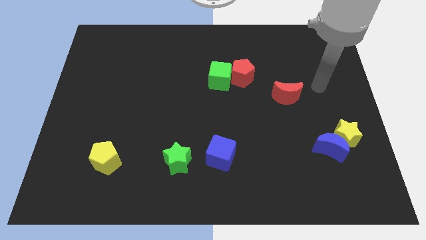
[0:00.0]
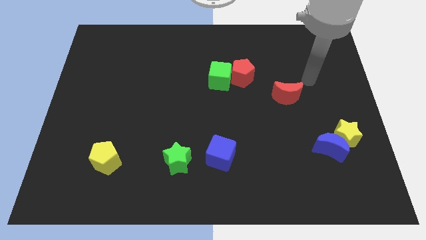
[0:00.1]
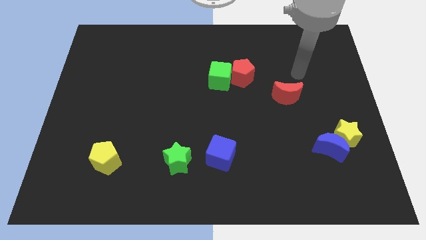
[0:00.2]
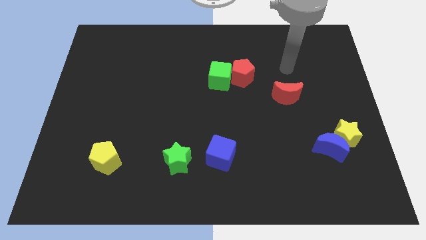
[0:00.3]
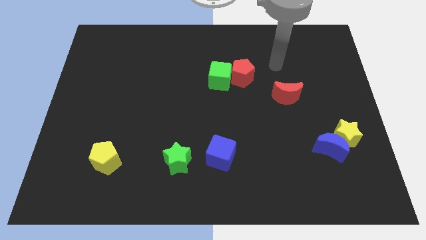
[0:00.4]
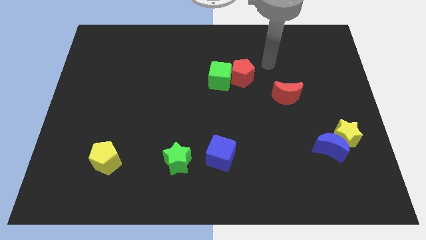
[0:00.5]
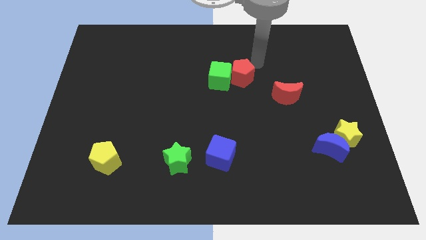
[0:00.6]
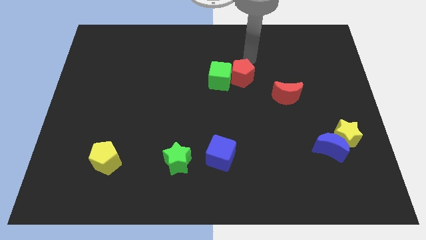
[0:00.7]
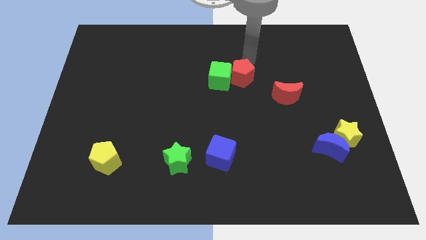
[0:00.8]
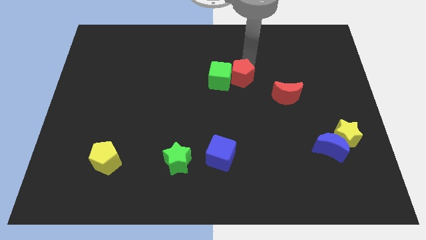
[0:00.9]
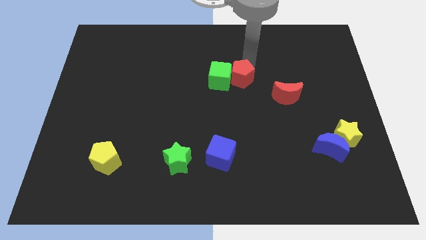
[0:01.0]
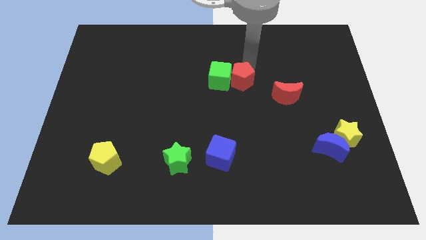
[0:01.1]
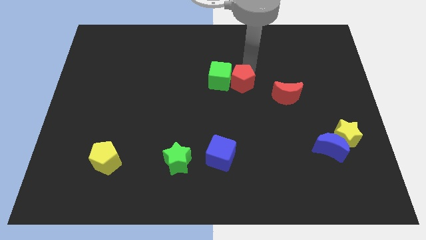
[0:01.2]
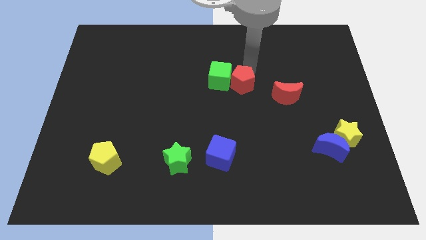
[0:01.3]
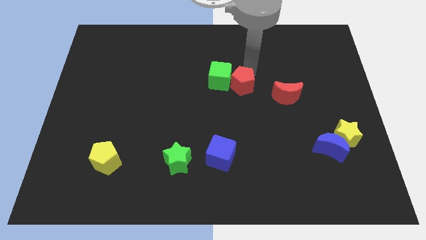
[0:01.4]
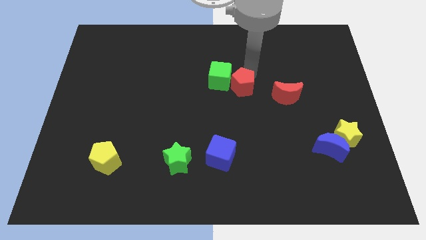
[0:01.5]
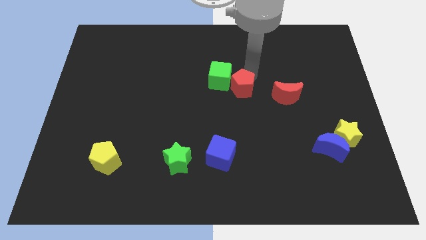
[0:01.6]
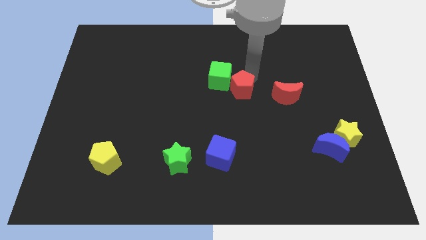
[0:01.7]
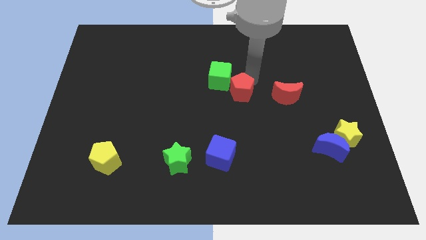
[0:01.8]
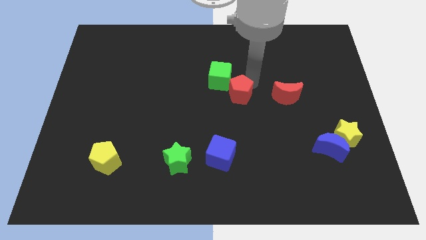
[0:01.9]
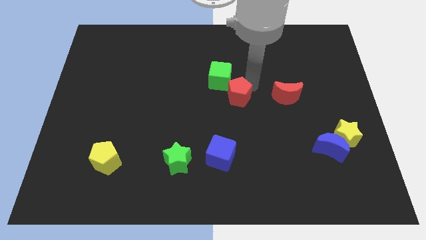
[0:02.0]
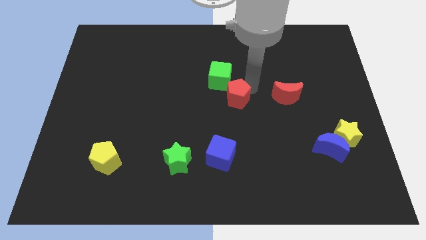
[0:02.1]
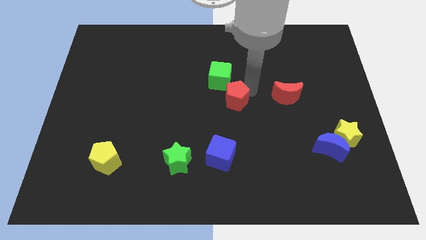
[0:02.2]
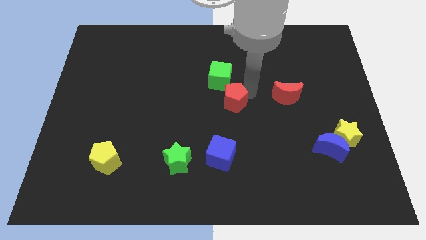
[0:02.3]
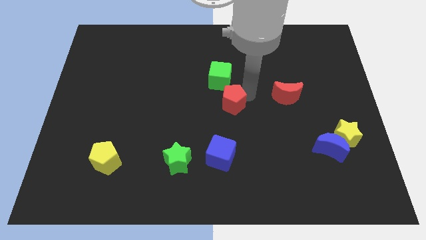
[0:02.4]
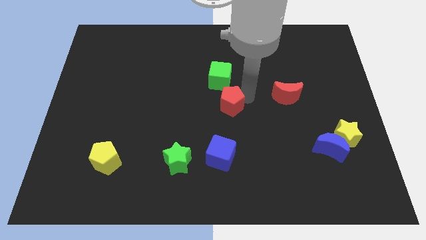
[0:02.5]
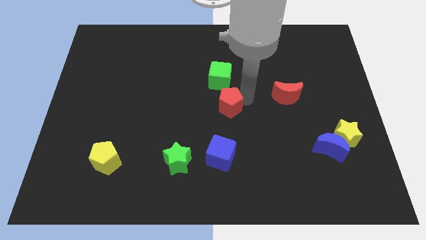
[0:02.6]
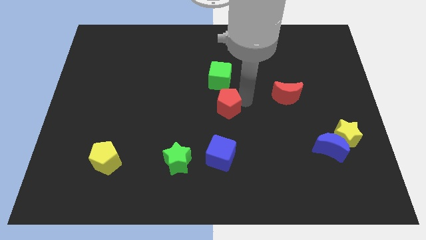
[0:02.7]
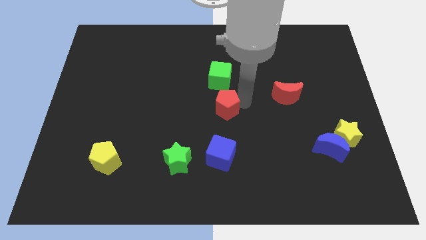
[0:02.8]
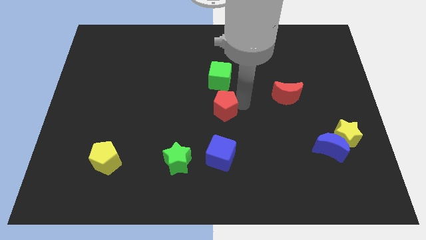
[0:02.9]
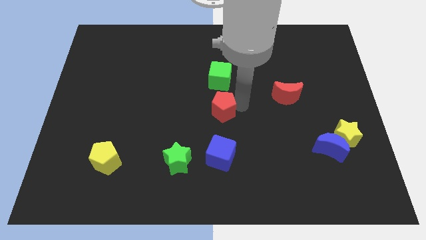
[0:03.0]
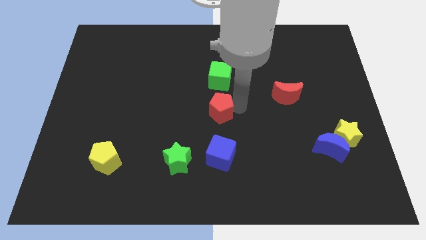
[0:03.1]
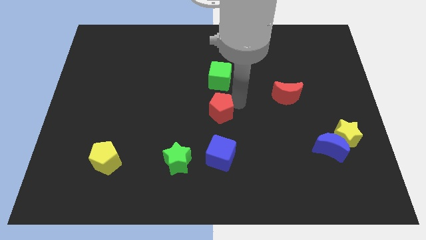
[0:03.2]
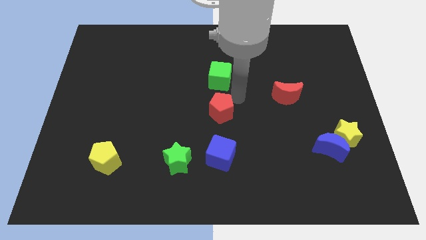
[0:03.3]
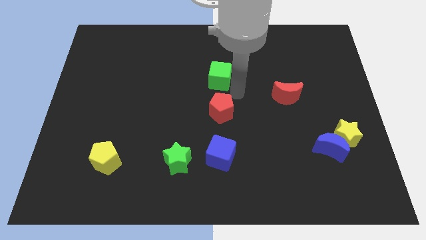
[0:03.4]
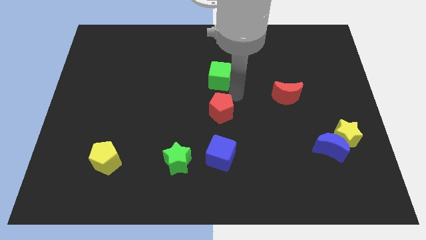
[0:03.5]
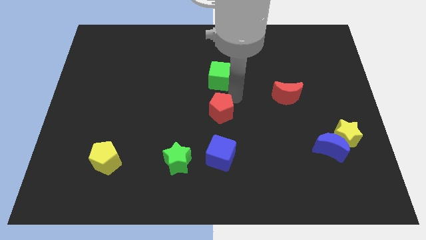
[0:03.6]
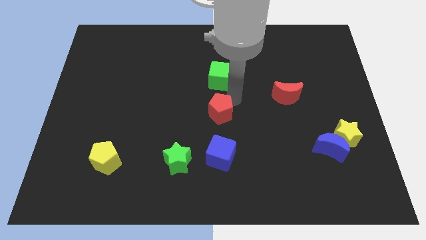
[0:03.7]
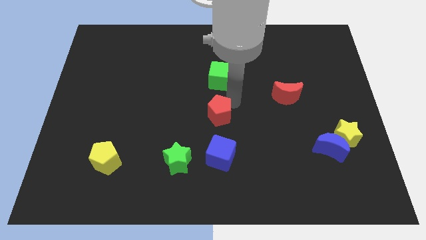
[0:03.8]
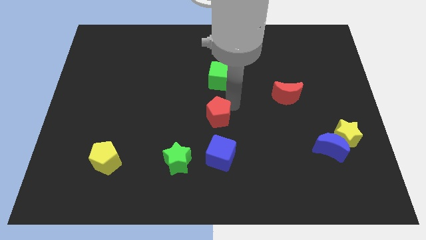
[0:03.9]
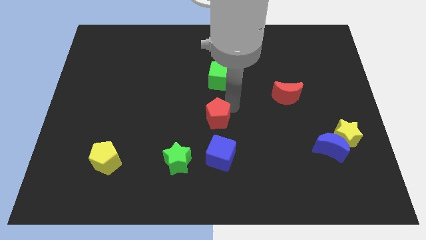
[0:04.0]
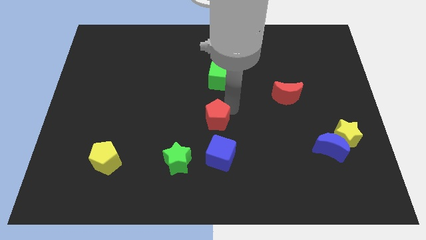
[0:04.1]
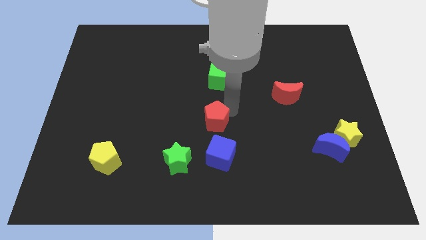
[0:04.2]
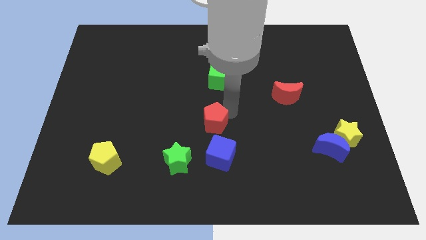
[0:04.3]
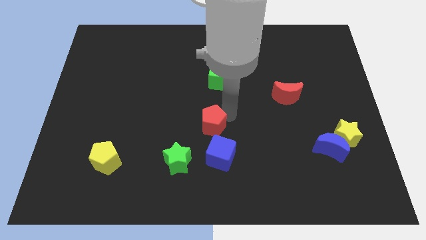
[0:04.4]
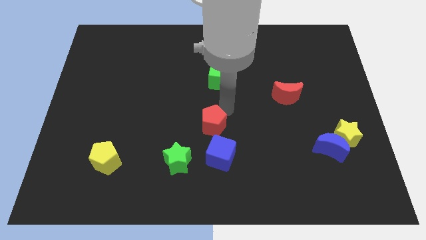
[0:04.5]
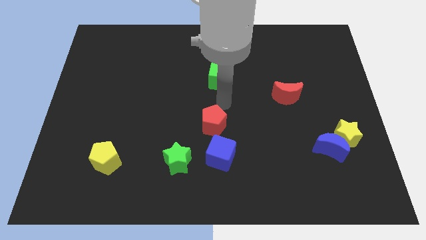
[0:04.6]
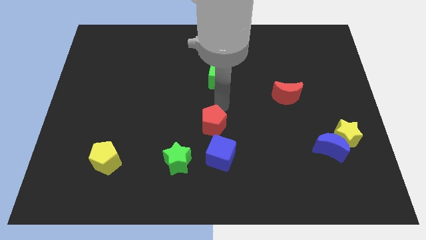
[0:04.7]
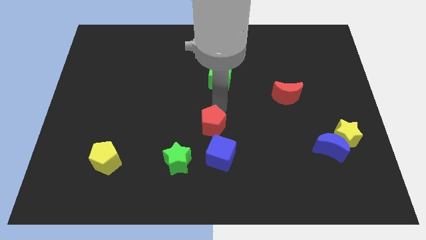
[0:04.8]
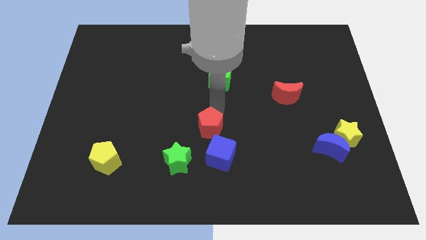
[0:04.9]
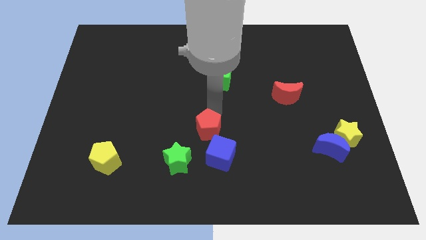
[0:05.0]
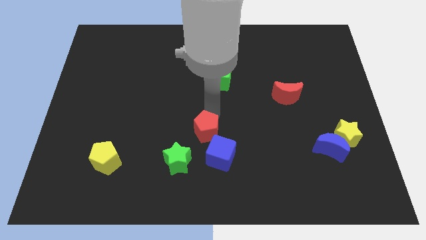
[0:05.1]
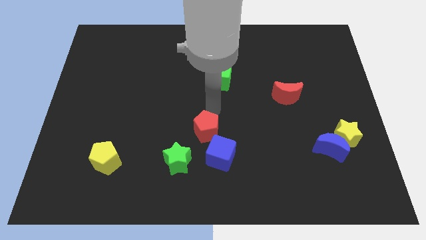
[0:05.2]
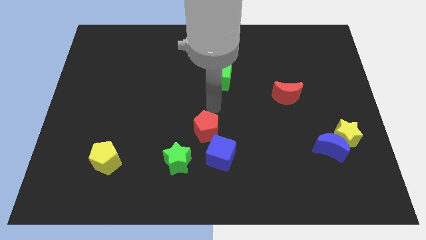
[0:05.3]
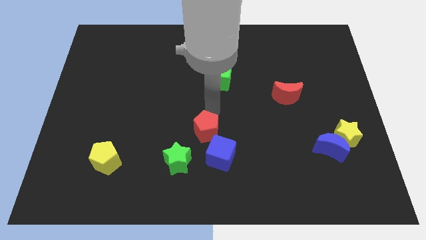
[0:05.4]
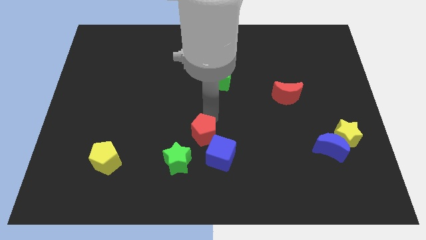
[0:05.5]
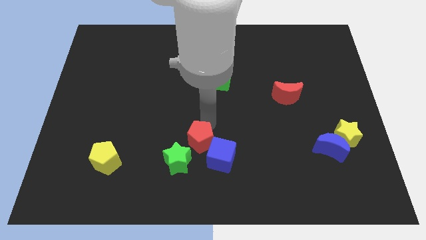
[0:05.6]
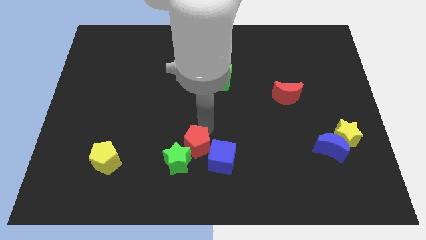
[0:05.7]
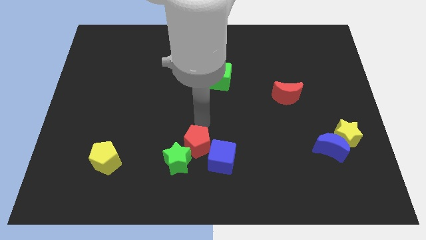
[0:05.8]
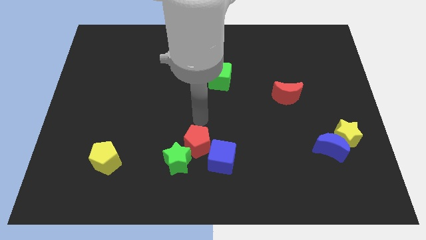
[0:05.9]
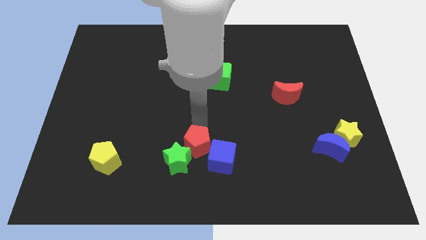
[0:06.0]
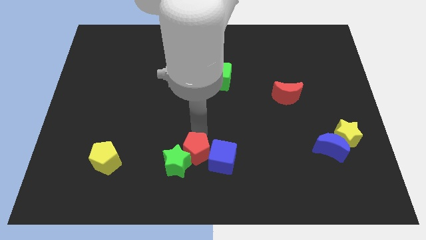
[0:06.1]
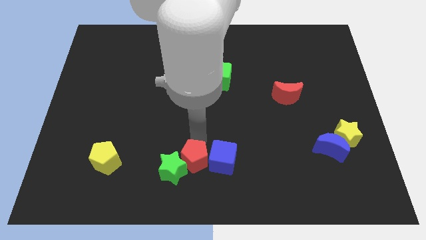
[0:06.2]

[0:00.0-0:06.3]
move the red pentagon diagonally down and to the left of the blue cube

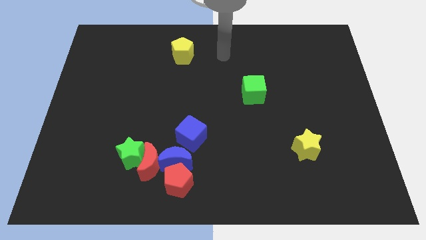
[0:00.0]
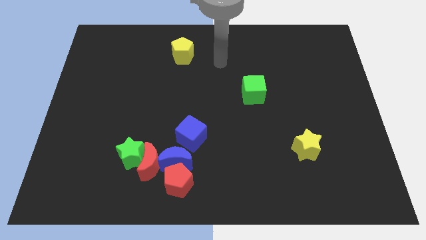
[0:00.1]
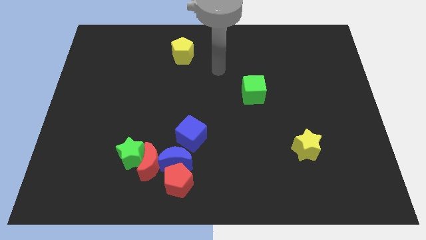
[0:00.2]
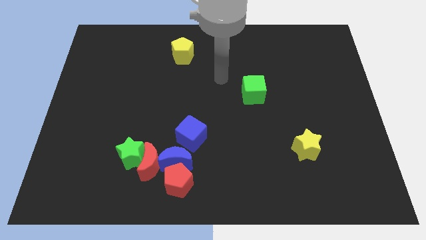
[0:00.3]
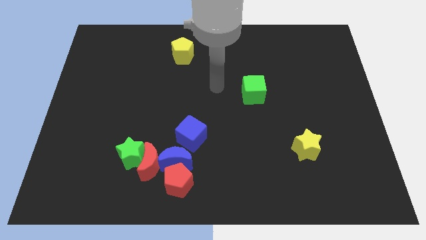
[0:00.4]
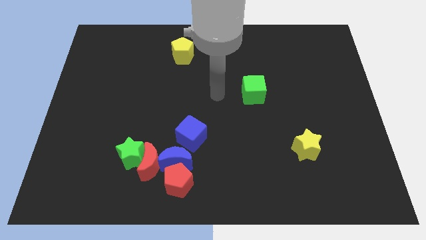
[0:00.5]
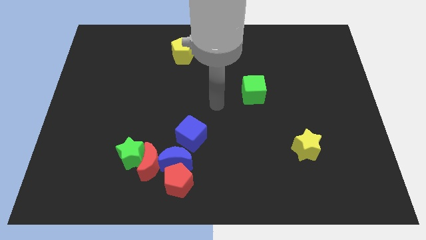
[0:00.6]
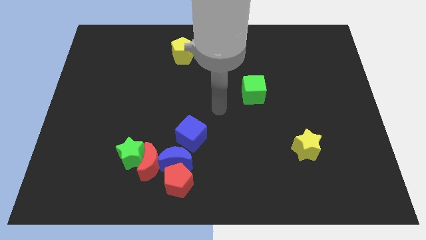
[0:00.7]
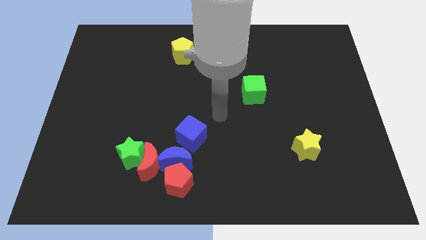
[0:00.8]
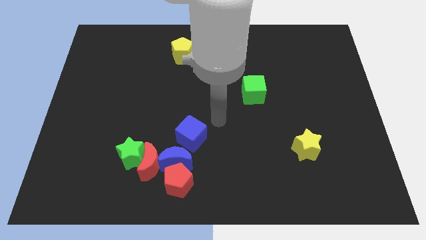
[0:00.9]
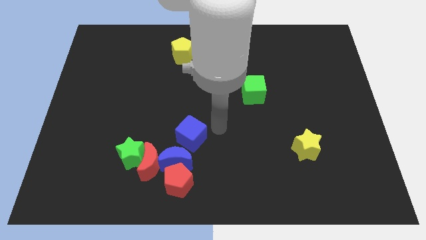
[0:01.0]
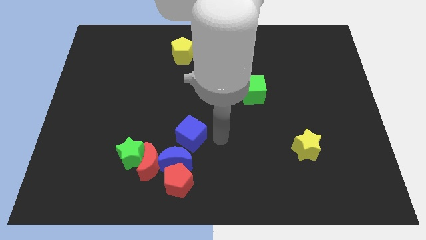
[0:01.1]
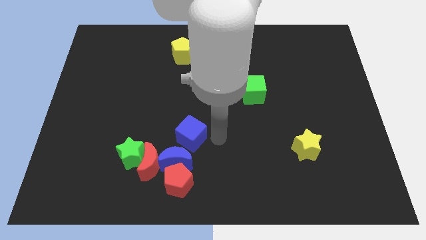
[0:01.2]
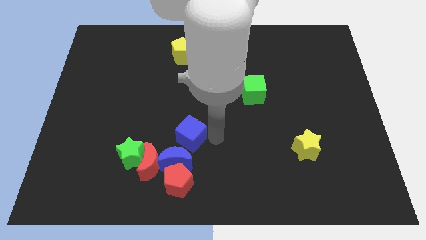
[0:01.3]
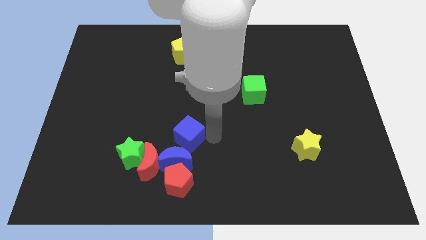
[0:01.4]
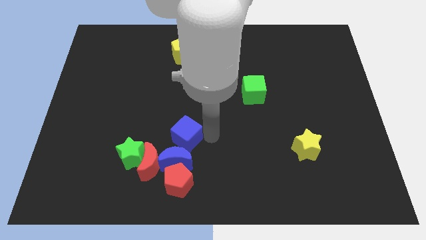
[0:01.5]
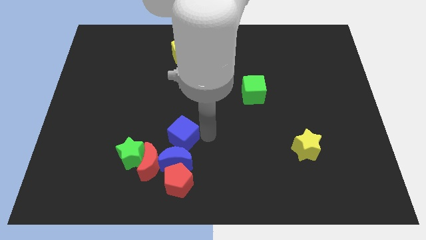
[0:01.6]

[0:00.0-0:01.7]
move the blue cube to the top right side of the green star
